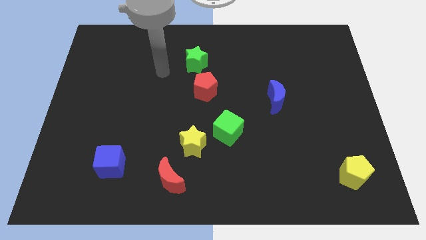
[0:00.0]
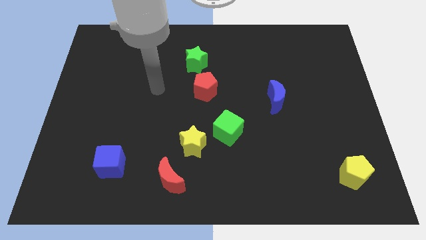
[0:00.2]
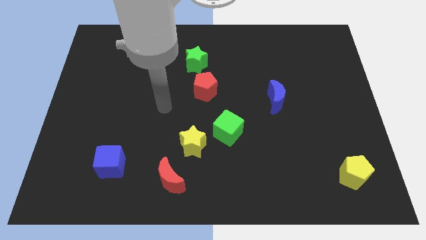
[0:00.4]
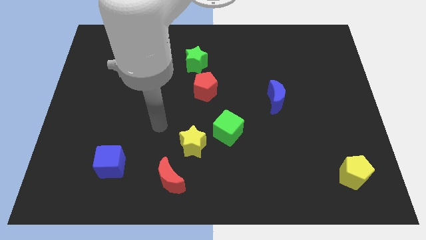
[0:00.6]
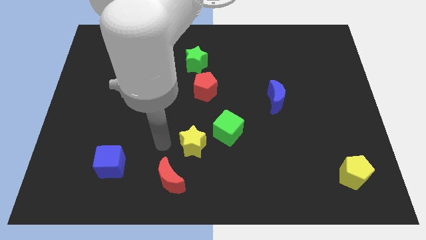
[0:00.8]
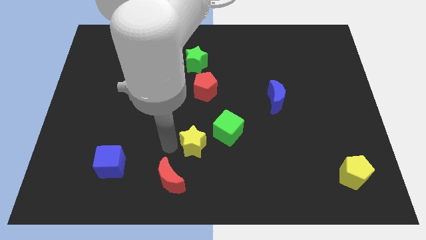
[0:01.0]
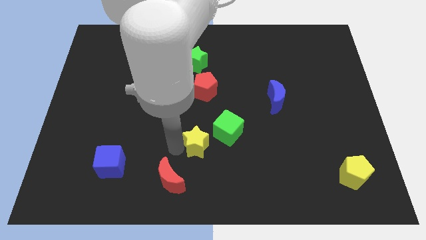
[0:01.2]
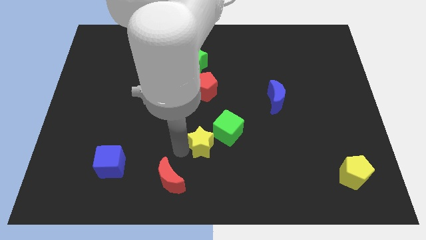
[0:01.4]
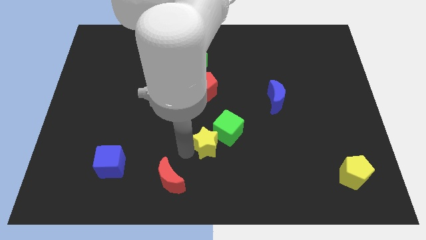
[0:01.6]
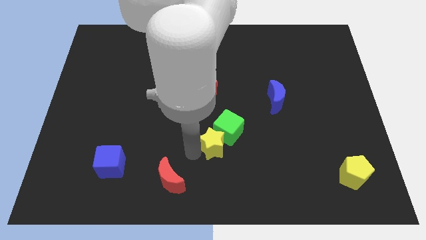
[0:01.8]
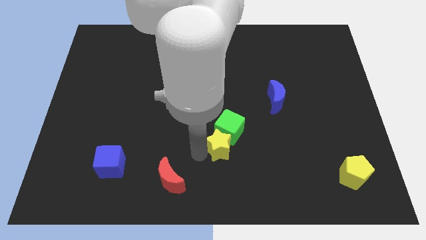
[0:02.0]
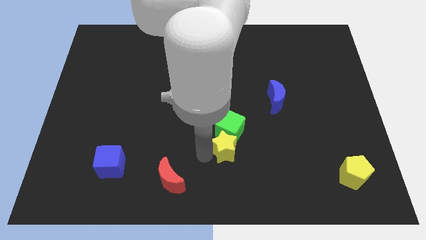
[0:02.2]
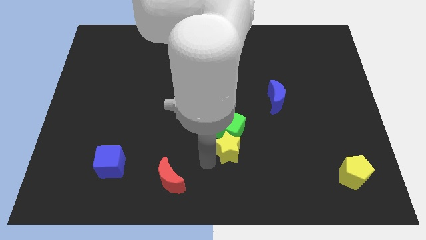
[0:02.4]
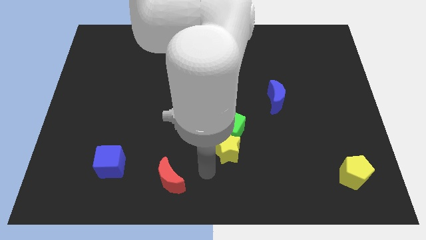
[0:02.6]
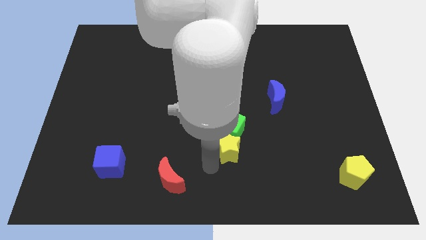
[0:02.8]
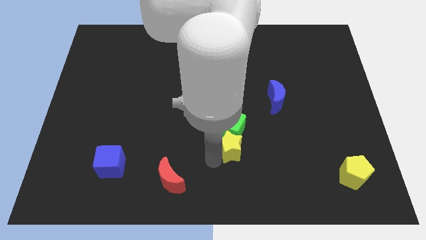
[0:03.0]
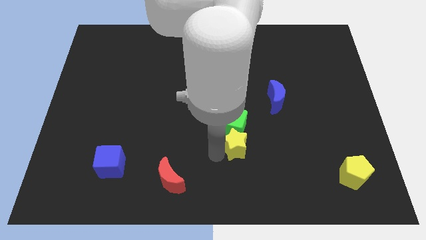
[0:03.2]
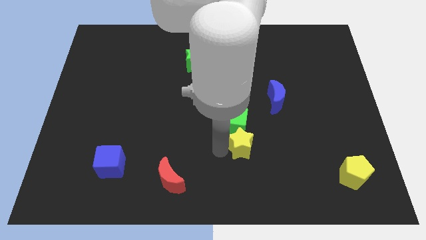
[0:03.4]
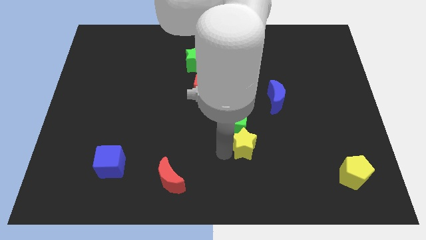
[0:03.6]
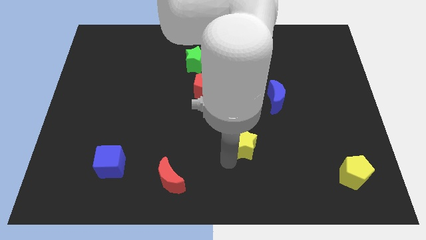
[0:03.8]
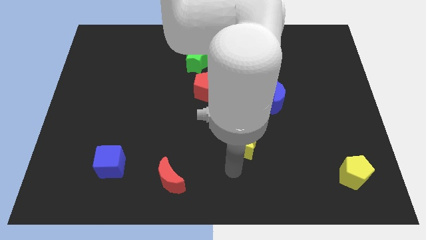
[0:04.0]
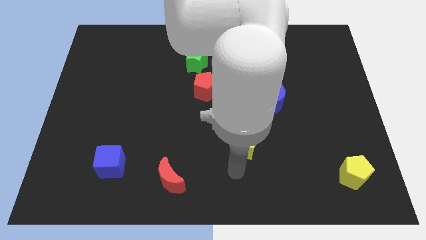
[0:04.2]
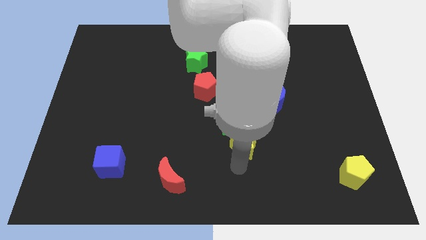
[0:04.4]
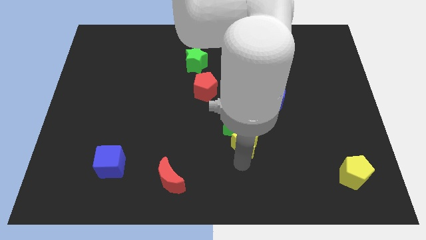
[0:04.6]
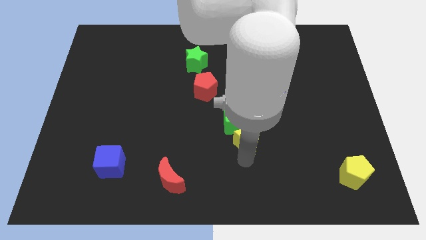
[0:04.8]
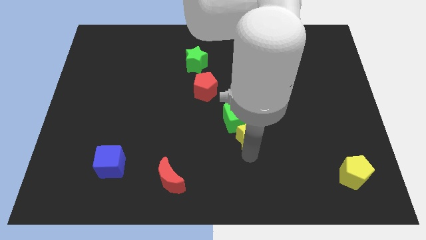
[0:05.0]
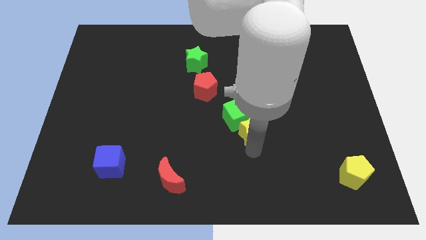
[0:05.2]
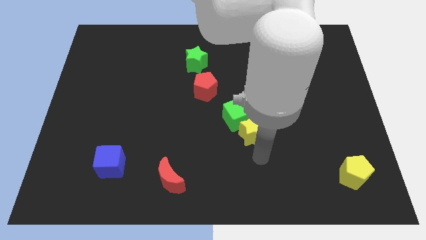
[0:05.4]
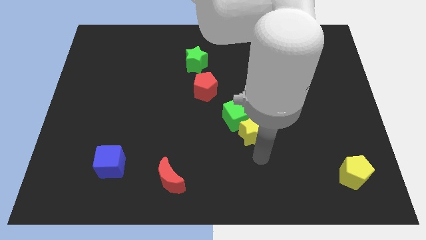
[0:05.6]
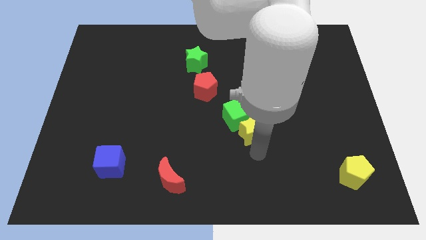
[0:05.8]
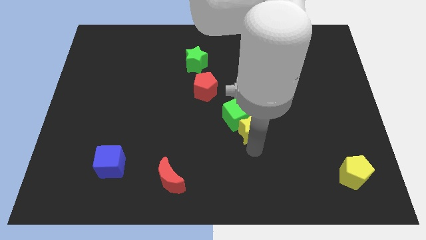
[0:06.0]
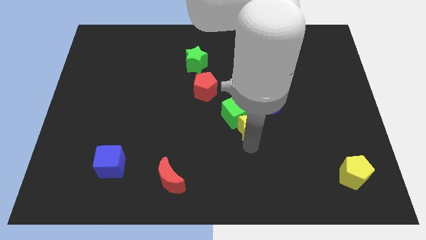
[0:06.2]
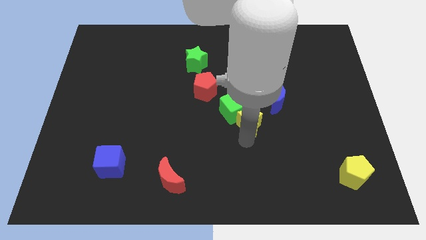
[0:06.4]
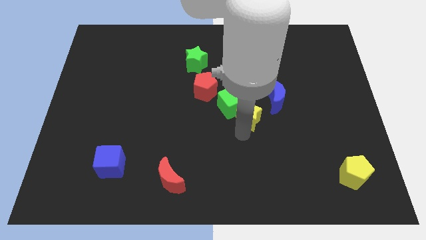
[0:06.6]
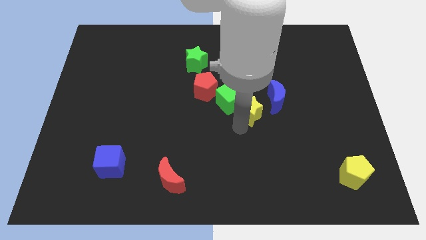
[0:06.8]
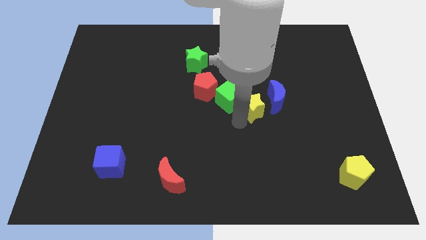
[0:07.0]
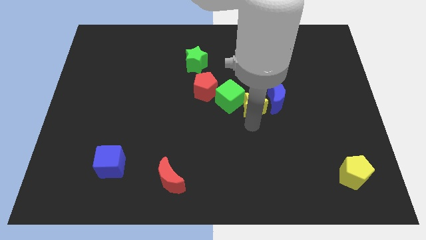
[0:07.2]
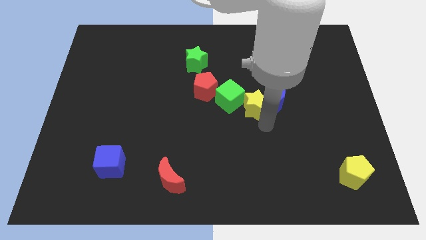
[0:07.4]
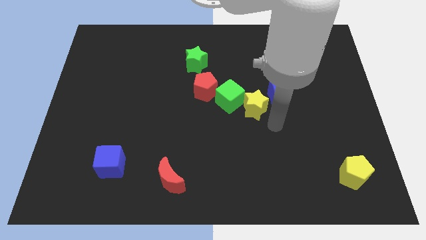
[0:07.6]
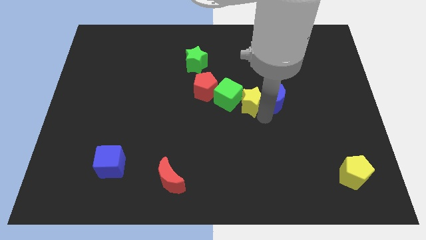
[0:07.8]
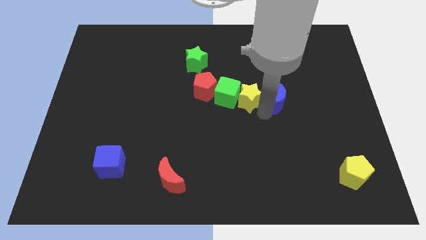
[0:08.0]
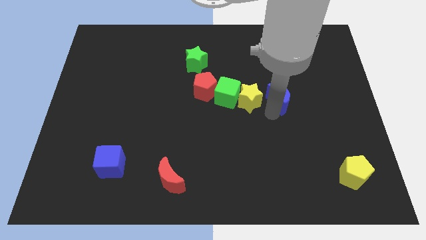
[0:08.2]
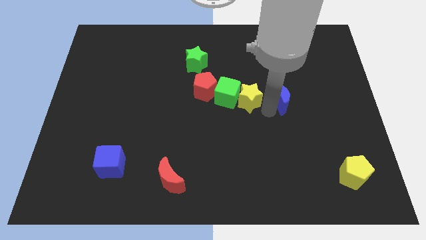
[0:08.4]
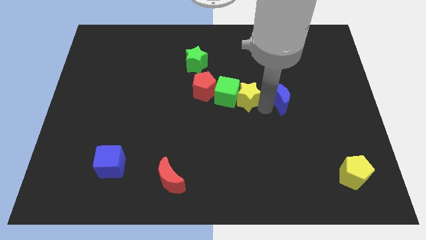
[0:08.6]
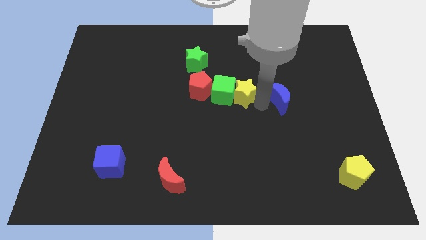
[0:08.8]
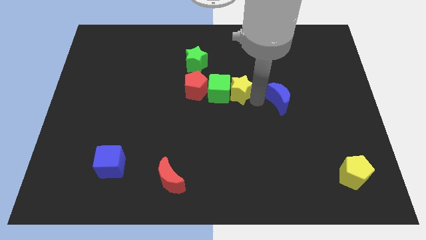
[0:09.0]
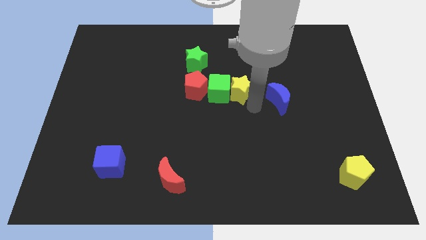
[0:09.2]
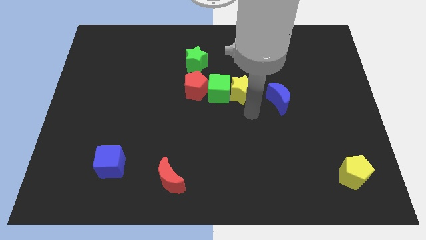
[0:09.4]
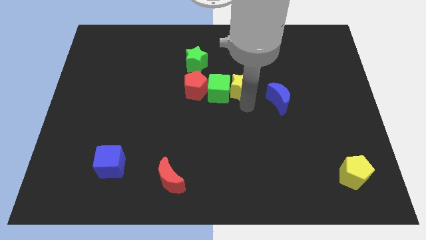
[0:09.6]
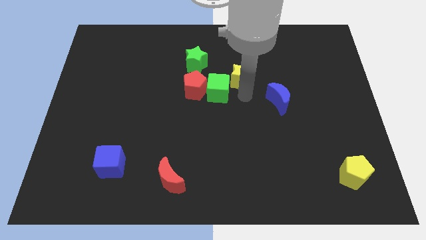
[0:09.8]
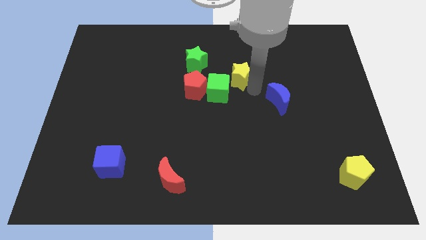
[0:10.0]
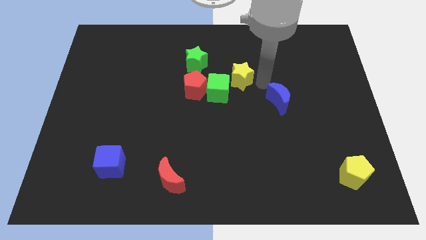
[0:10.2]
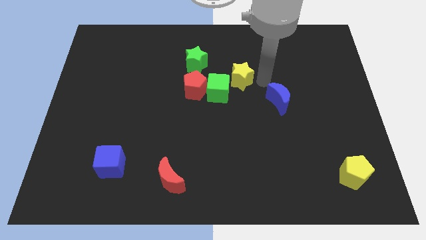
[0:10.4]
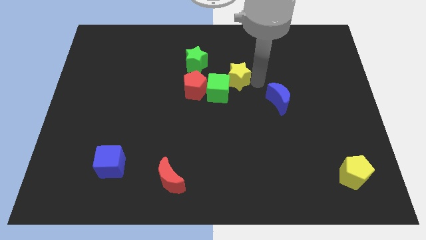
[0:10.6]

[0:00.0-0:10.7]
put the yellow star to the bottom right of the green star
